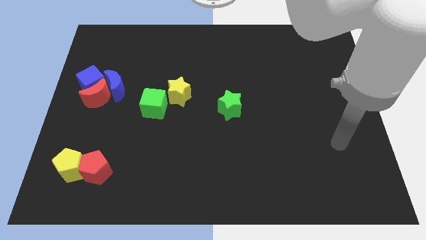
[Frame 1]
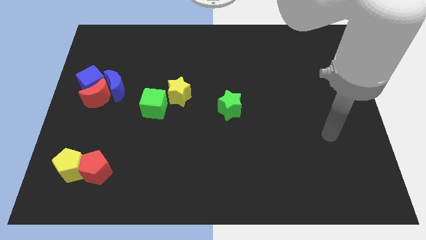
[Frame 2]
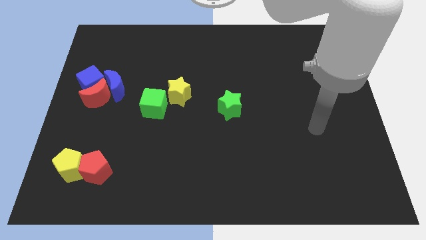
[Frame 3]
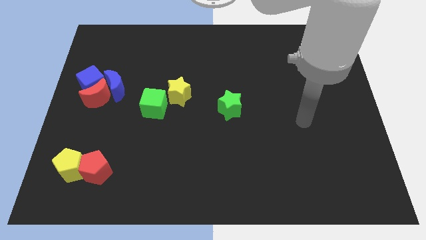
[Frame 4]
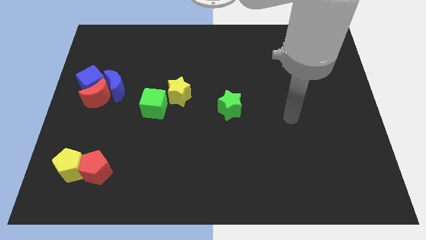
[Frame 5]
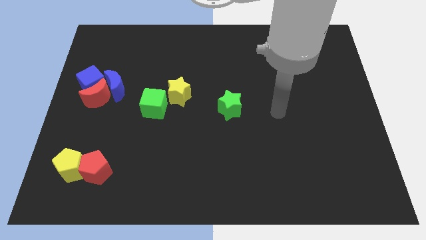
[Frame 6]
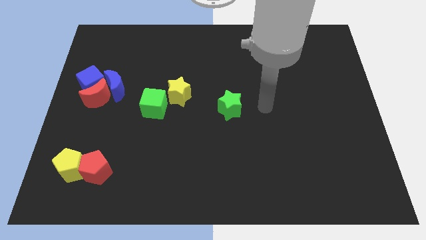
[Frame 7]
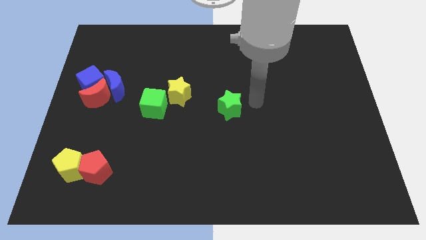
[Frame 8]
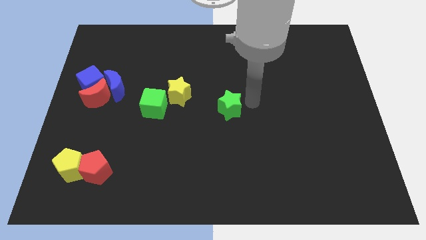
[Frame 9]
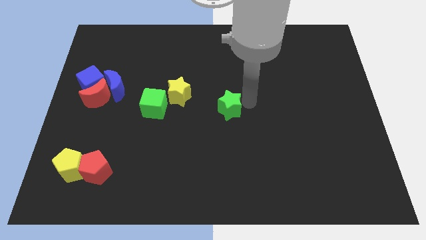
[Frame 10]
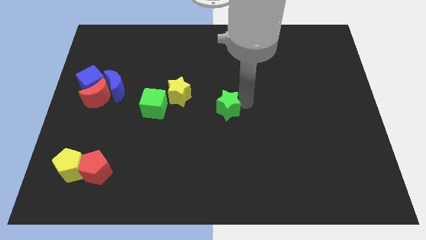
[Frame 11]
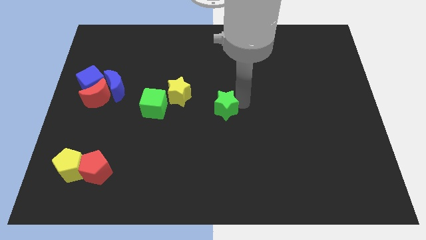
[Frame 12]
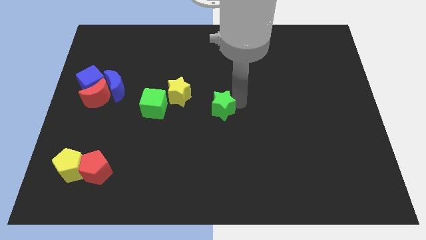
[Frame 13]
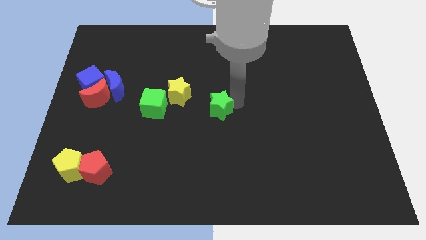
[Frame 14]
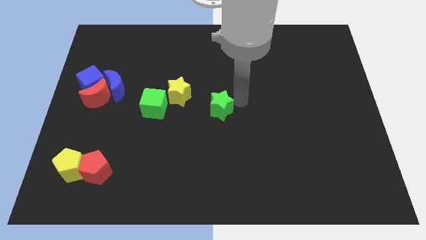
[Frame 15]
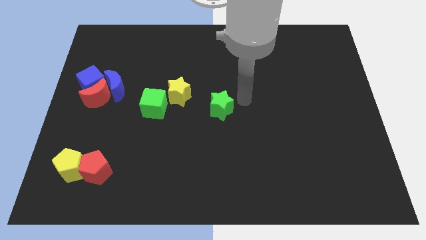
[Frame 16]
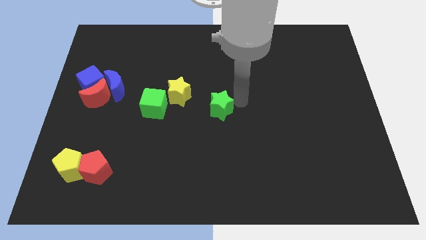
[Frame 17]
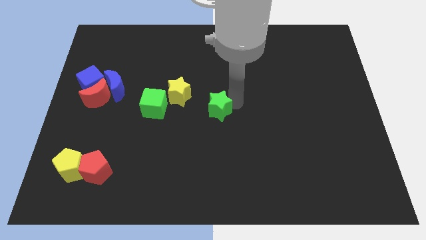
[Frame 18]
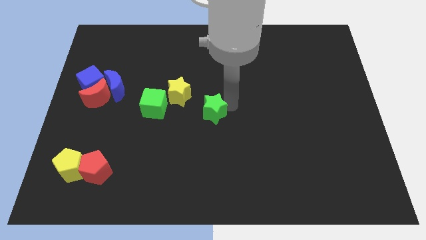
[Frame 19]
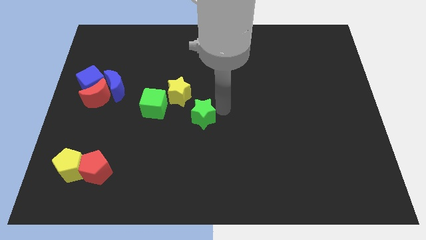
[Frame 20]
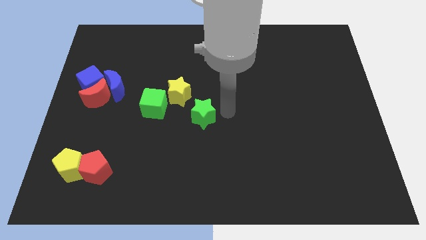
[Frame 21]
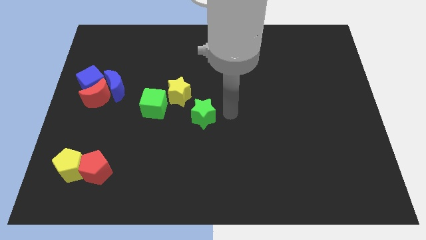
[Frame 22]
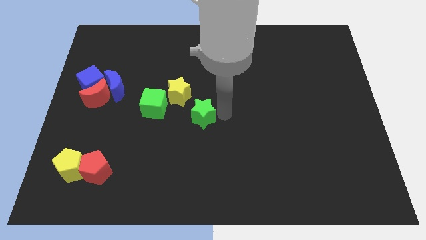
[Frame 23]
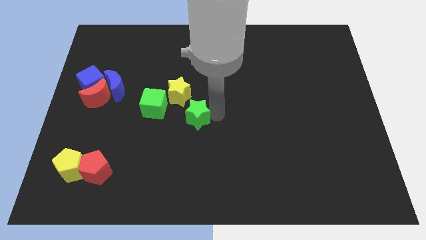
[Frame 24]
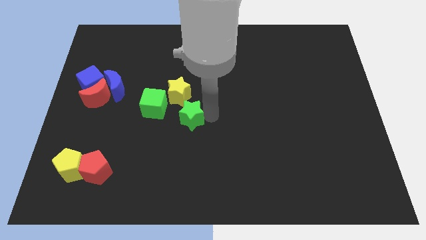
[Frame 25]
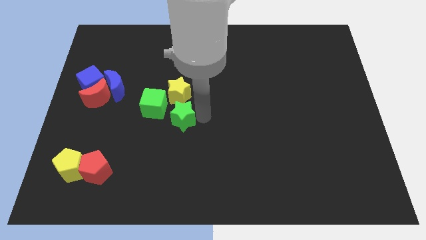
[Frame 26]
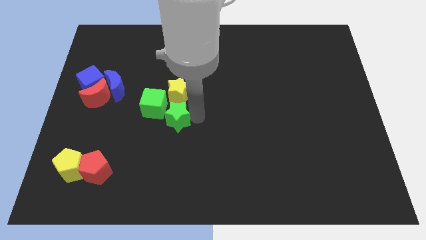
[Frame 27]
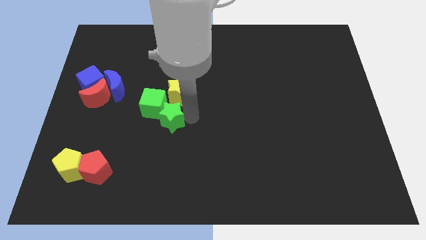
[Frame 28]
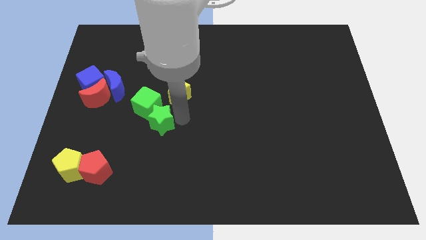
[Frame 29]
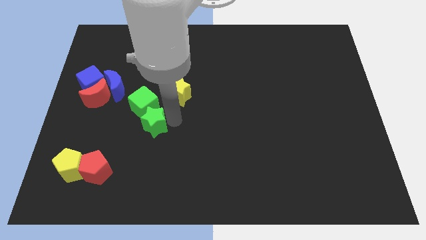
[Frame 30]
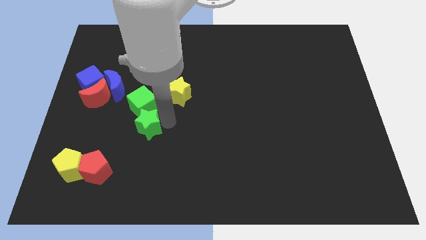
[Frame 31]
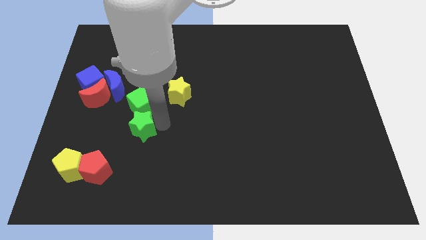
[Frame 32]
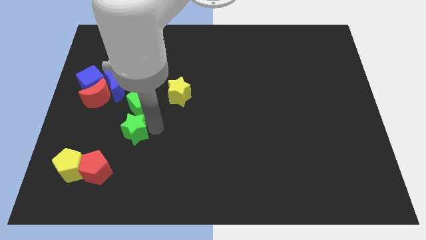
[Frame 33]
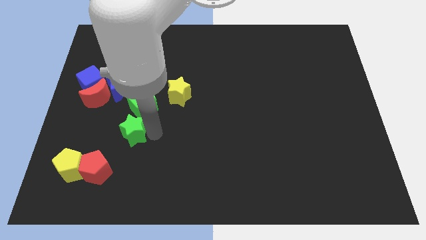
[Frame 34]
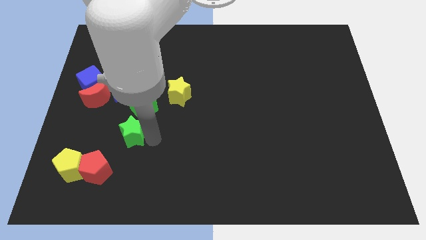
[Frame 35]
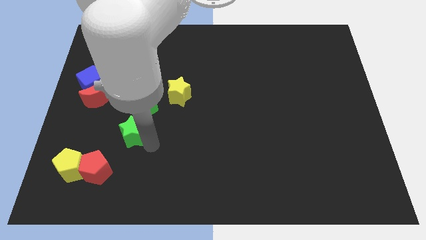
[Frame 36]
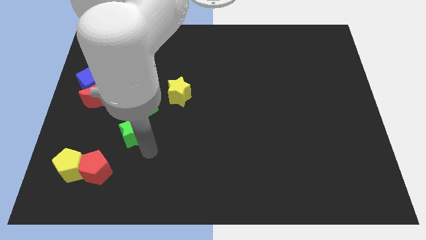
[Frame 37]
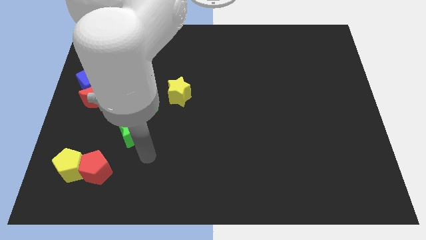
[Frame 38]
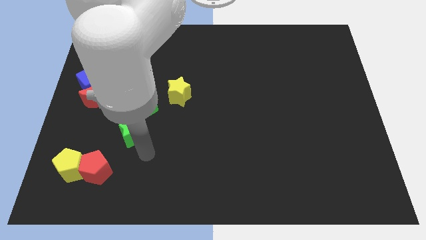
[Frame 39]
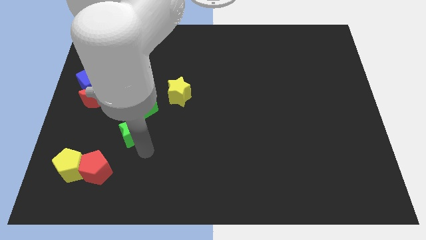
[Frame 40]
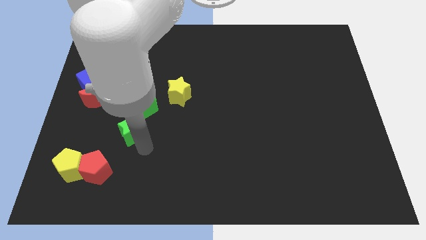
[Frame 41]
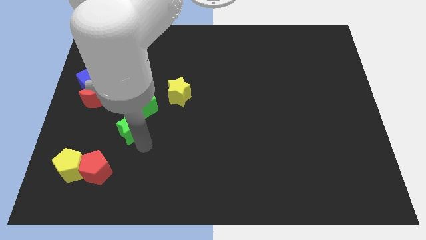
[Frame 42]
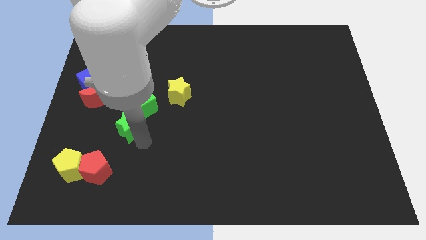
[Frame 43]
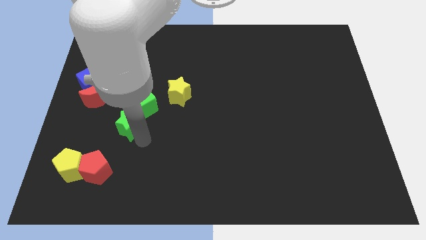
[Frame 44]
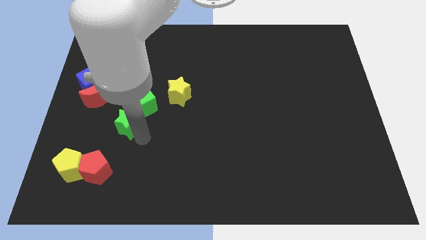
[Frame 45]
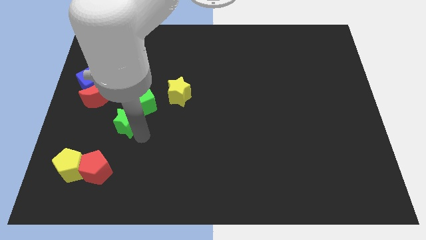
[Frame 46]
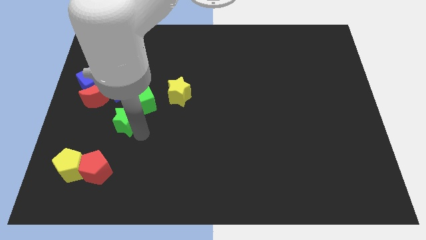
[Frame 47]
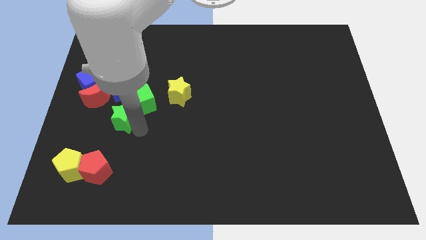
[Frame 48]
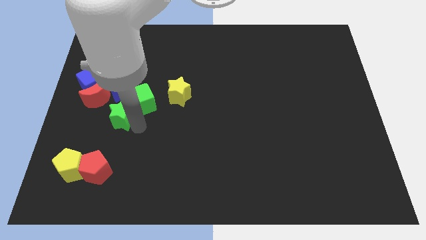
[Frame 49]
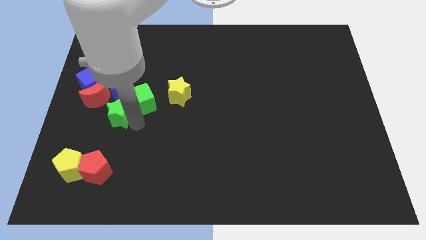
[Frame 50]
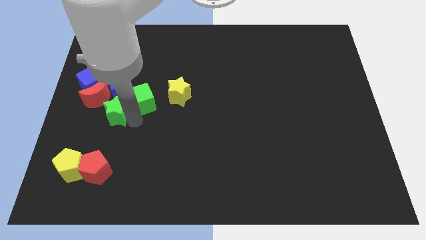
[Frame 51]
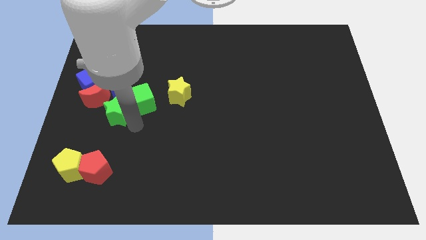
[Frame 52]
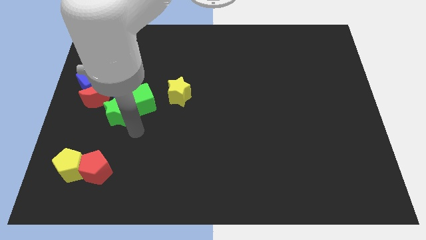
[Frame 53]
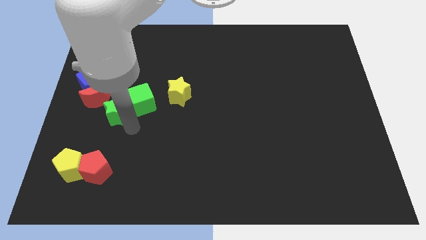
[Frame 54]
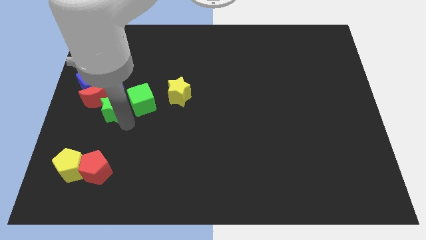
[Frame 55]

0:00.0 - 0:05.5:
move the green star next to the red moon

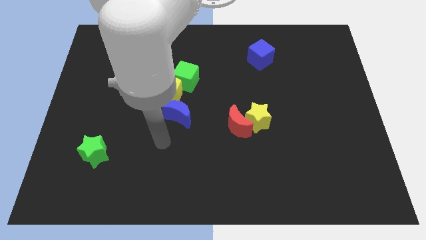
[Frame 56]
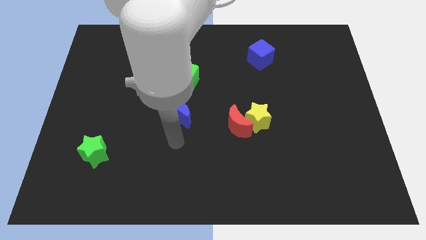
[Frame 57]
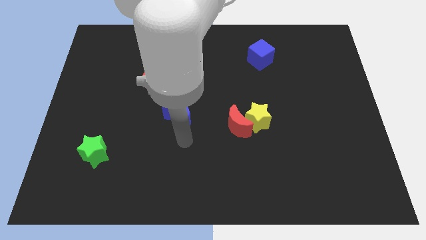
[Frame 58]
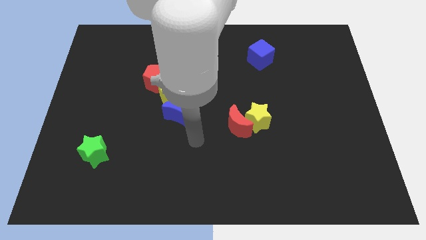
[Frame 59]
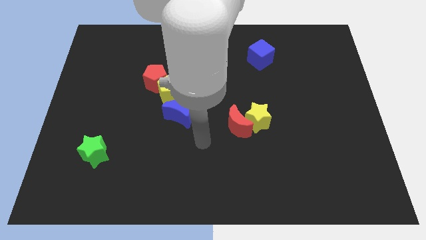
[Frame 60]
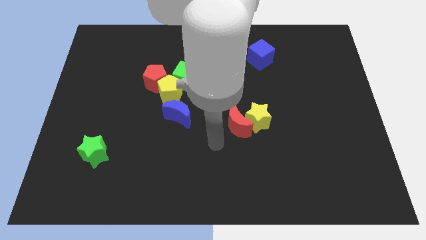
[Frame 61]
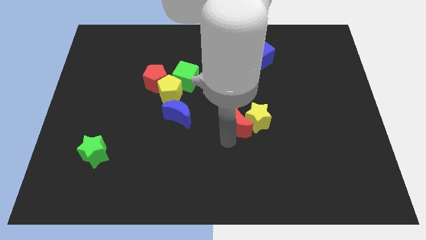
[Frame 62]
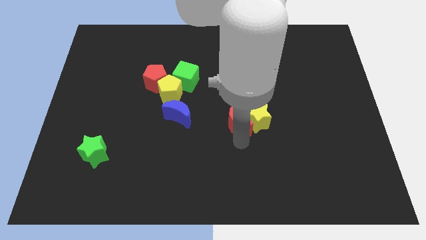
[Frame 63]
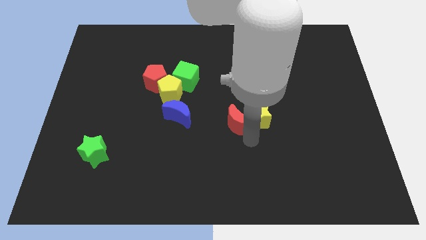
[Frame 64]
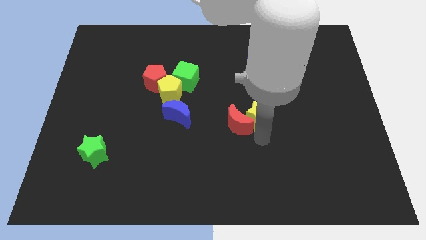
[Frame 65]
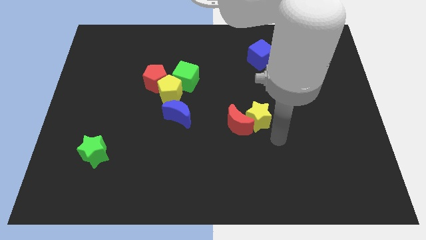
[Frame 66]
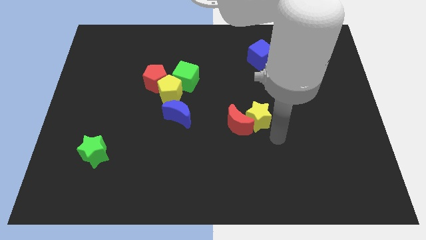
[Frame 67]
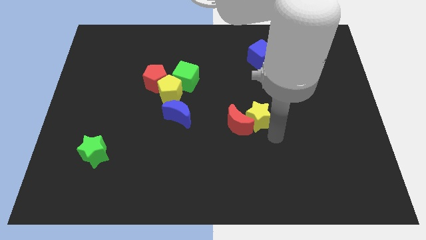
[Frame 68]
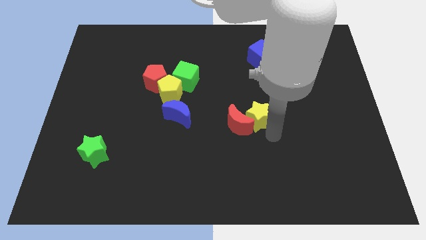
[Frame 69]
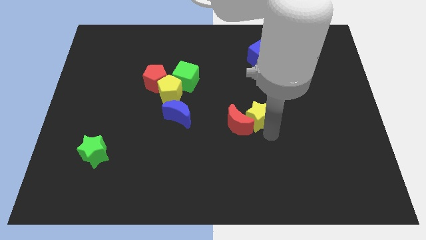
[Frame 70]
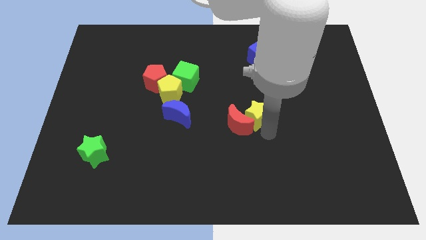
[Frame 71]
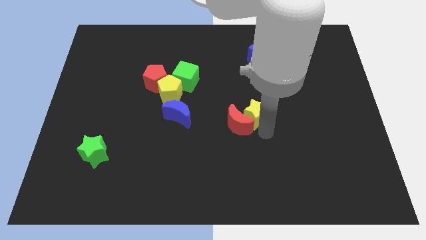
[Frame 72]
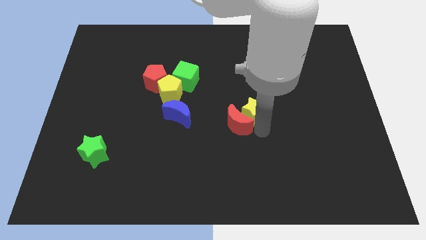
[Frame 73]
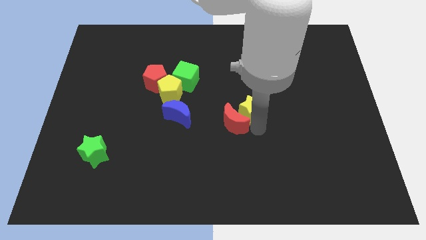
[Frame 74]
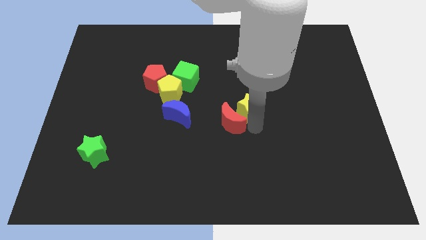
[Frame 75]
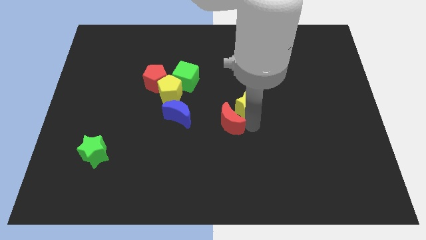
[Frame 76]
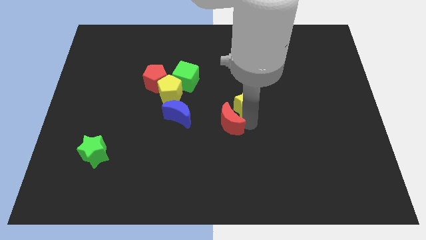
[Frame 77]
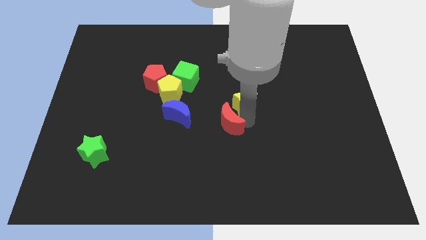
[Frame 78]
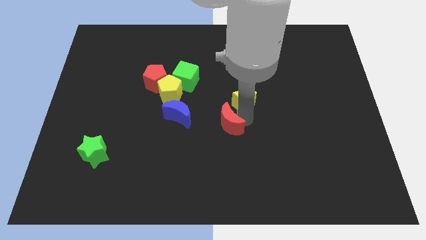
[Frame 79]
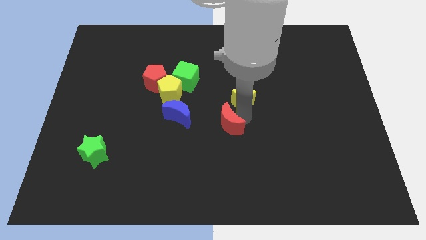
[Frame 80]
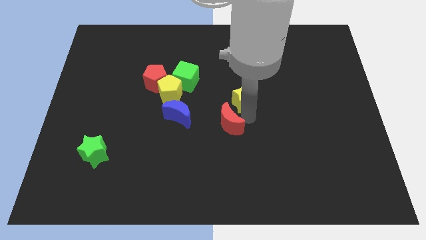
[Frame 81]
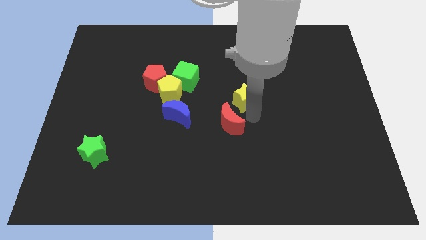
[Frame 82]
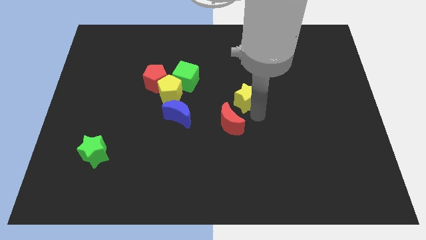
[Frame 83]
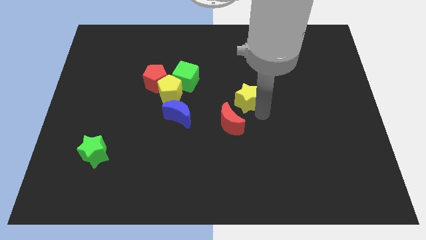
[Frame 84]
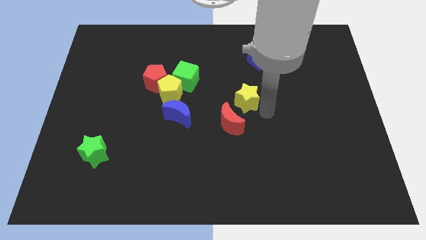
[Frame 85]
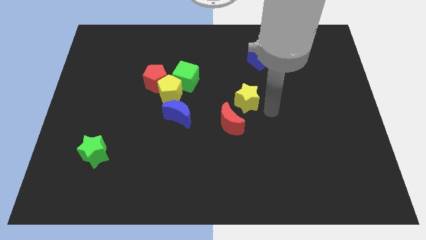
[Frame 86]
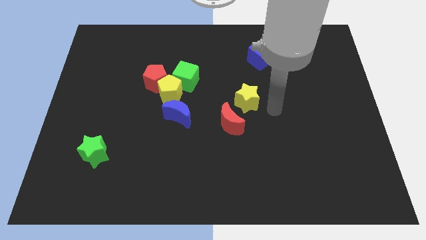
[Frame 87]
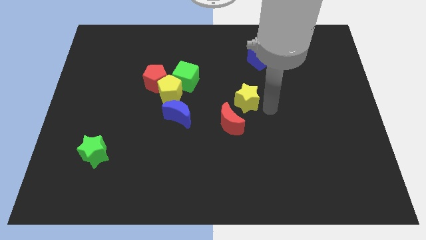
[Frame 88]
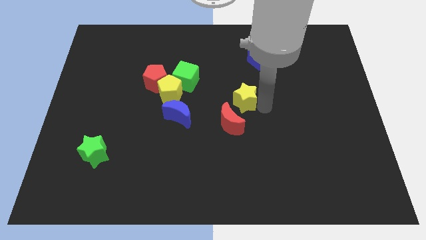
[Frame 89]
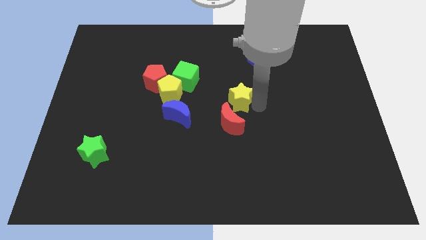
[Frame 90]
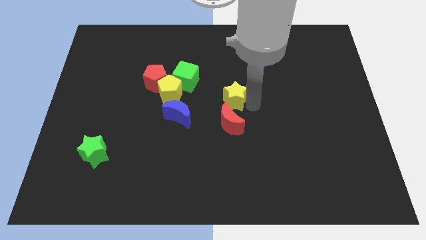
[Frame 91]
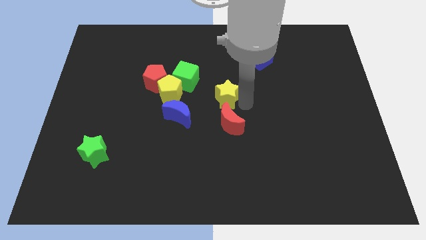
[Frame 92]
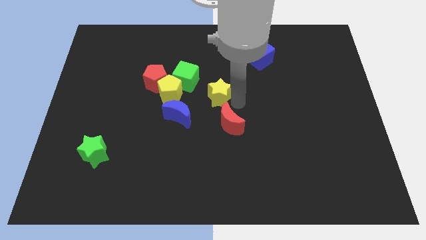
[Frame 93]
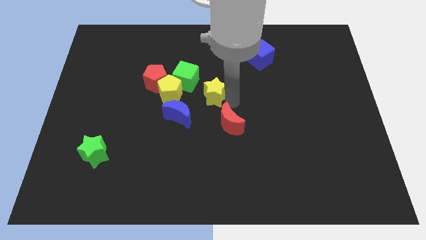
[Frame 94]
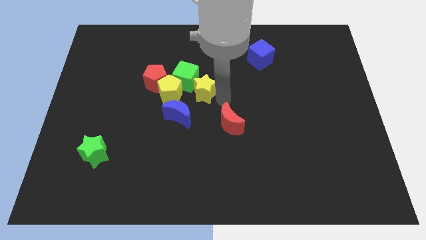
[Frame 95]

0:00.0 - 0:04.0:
slide the yellow star towards the green cube
